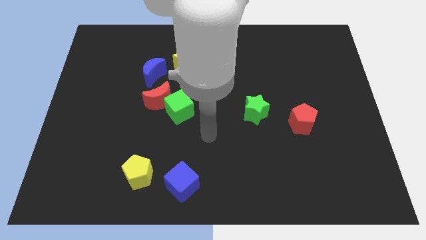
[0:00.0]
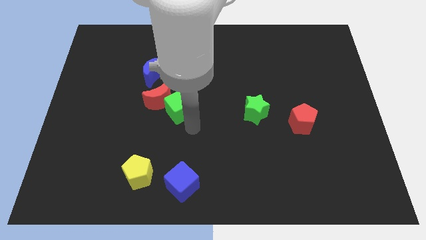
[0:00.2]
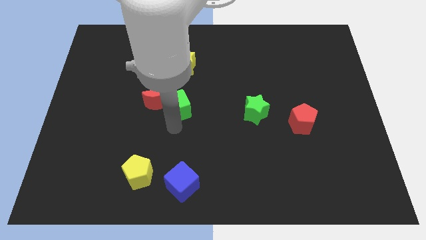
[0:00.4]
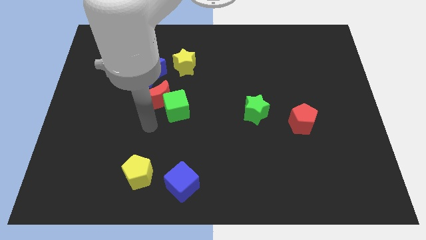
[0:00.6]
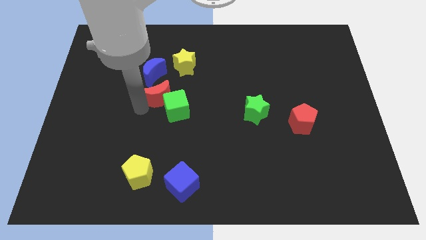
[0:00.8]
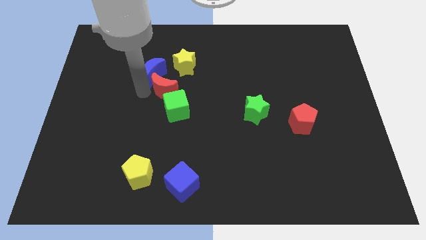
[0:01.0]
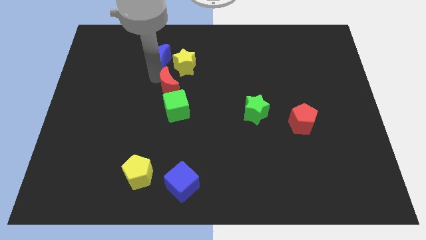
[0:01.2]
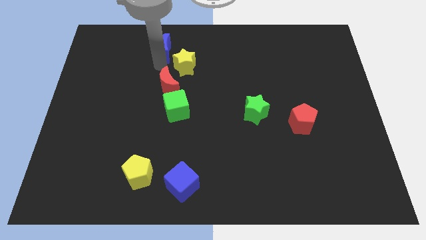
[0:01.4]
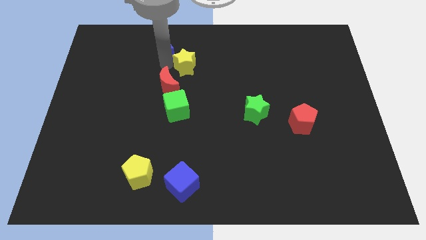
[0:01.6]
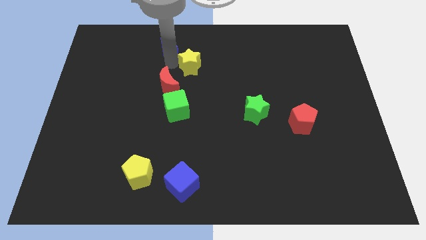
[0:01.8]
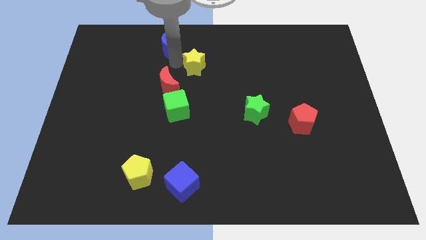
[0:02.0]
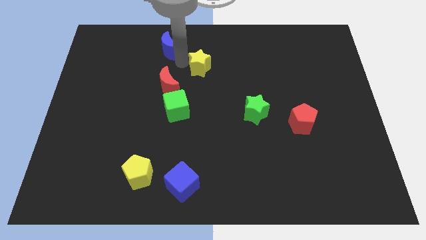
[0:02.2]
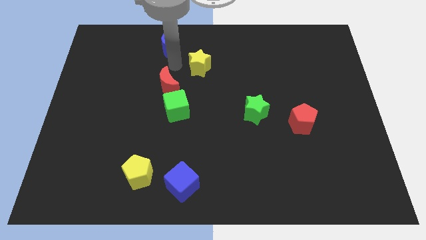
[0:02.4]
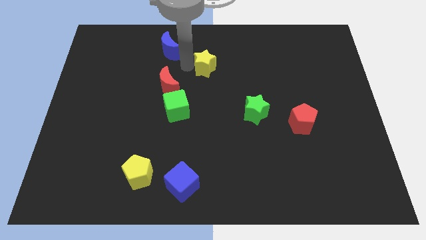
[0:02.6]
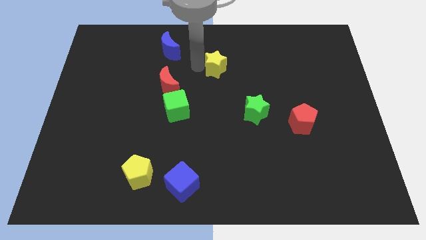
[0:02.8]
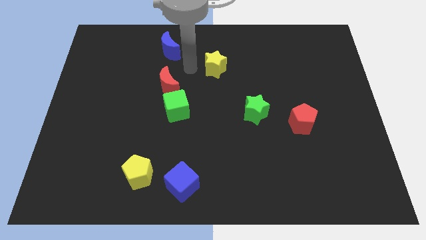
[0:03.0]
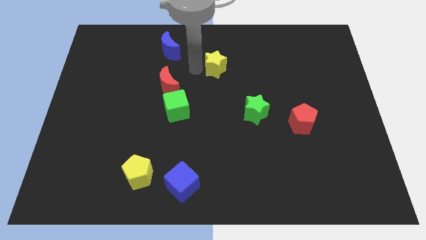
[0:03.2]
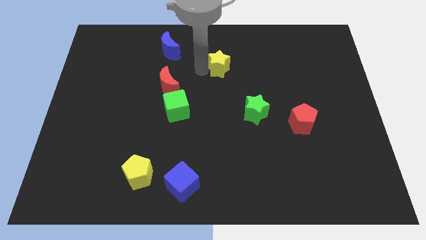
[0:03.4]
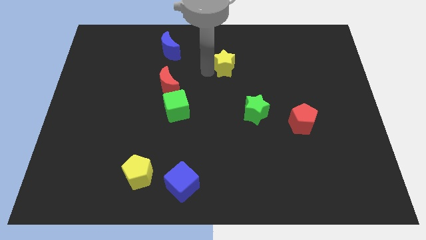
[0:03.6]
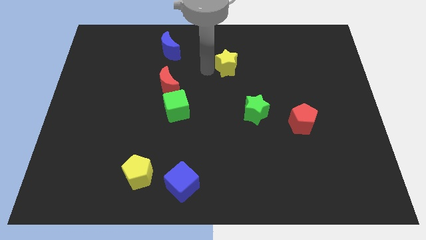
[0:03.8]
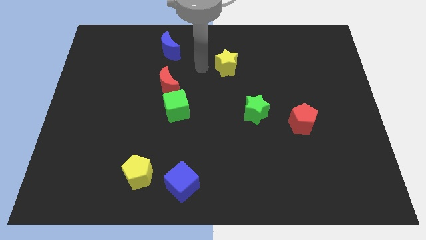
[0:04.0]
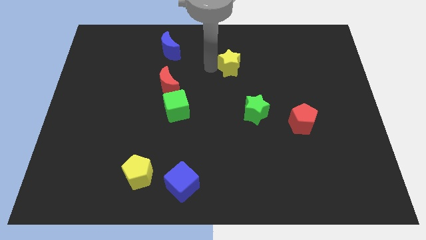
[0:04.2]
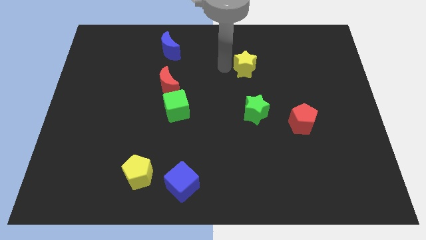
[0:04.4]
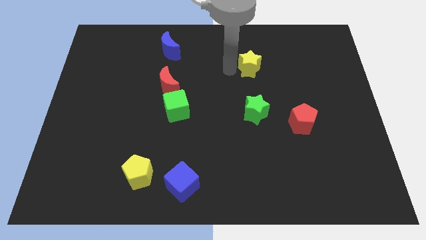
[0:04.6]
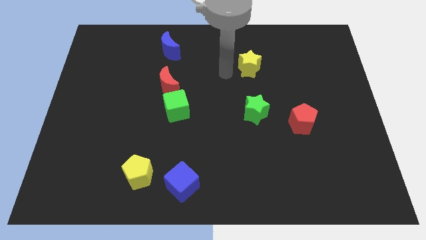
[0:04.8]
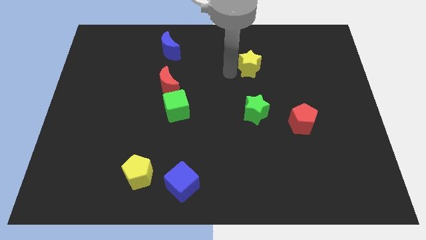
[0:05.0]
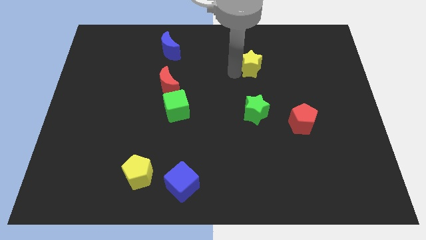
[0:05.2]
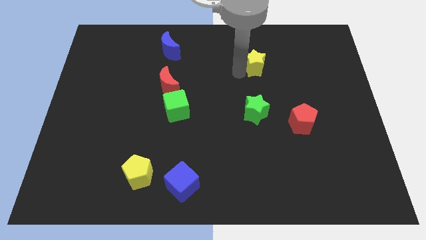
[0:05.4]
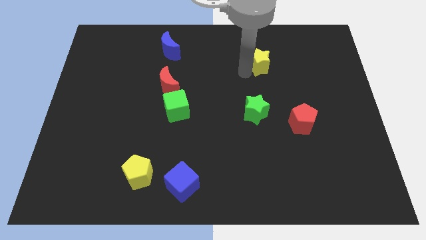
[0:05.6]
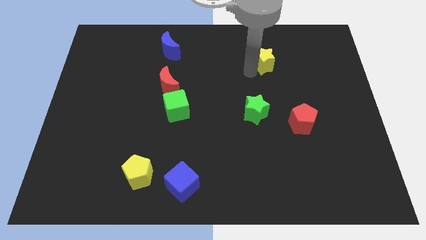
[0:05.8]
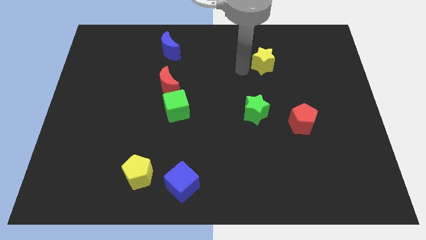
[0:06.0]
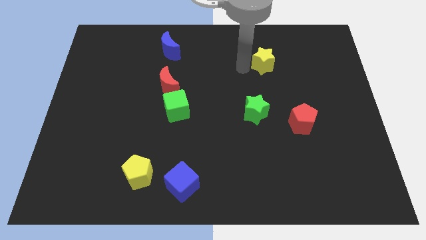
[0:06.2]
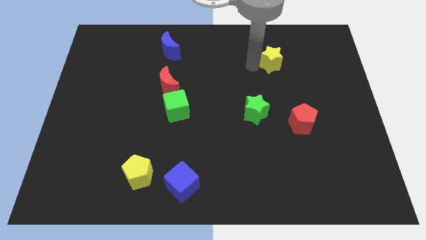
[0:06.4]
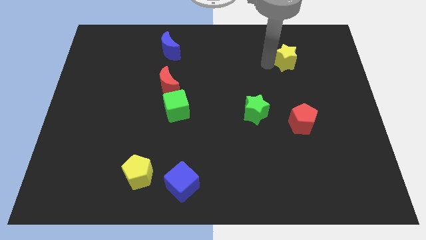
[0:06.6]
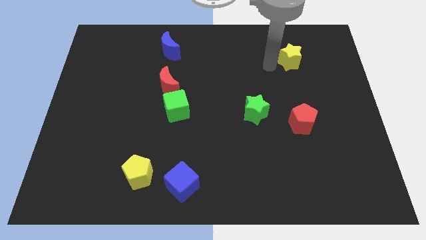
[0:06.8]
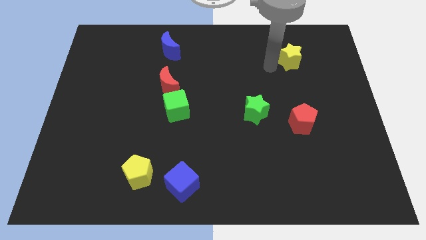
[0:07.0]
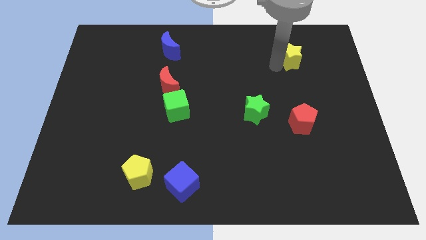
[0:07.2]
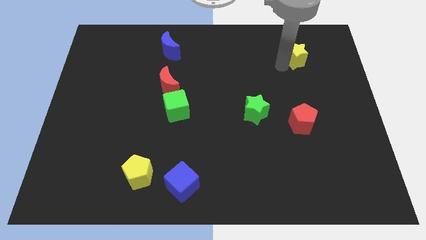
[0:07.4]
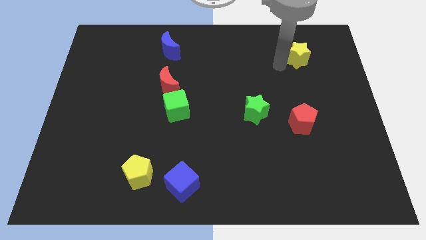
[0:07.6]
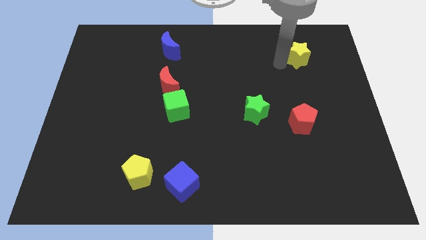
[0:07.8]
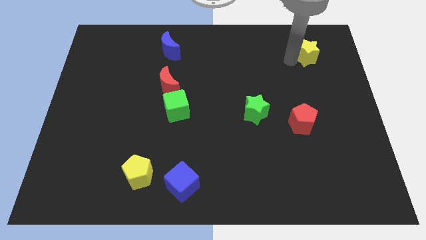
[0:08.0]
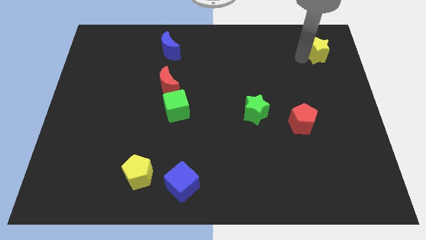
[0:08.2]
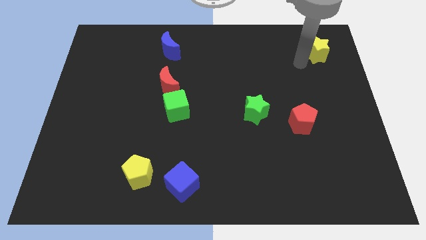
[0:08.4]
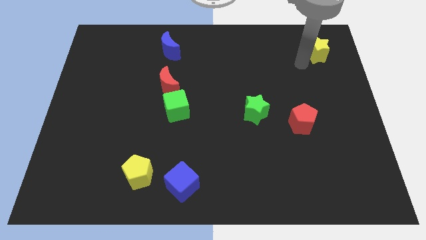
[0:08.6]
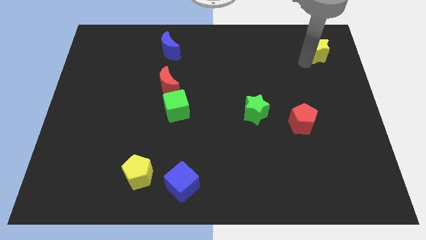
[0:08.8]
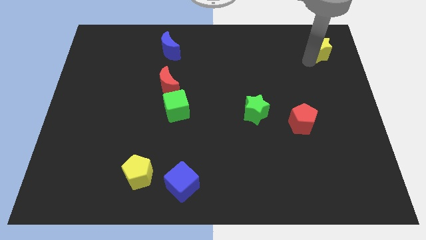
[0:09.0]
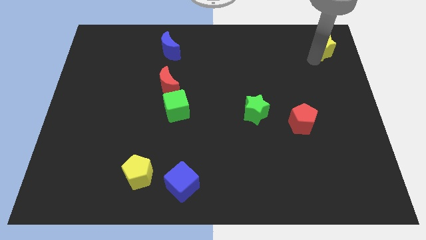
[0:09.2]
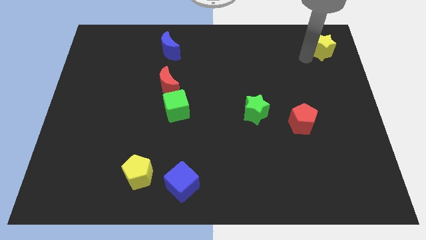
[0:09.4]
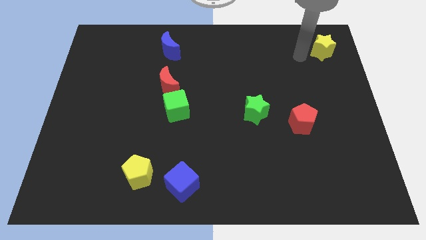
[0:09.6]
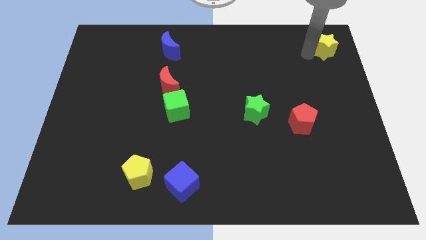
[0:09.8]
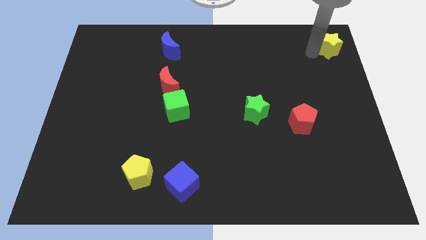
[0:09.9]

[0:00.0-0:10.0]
slide the yellow star to the upper right corner
